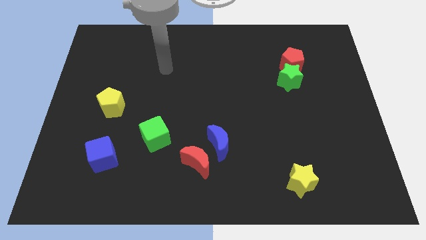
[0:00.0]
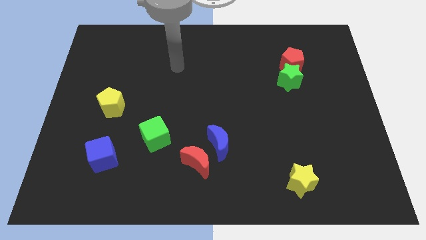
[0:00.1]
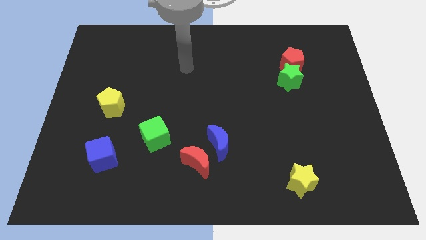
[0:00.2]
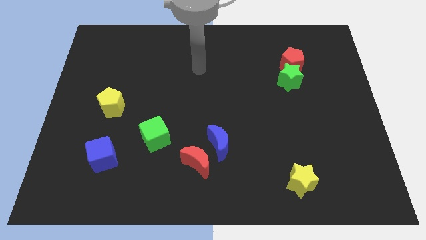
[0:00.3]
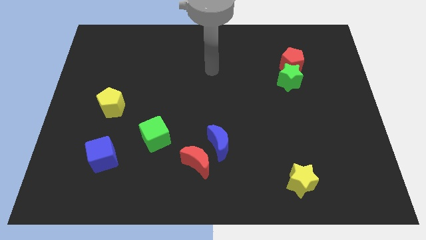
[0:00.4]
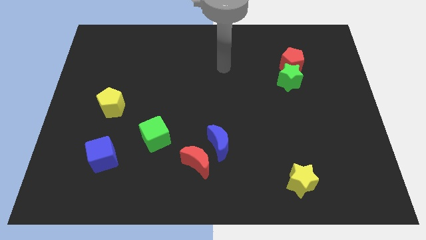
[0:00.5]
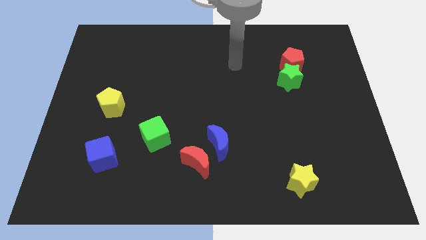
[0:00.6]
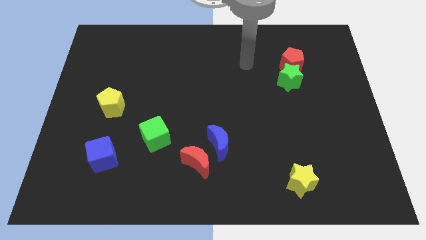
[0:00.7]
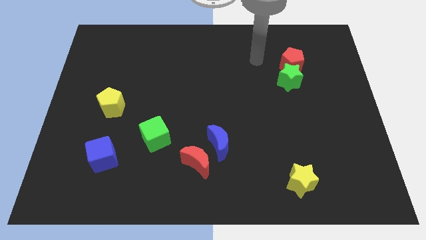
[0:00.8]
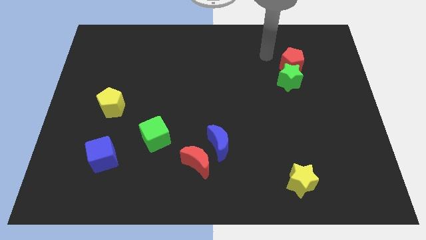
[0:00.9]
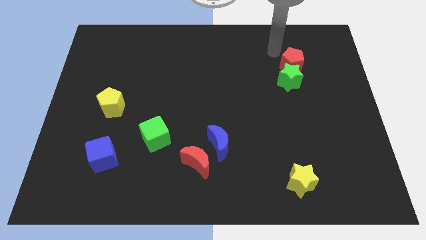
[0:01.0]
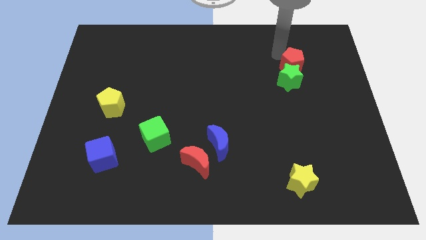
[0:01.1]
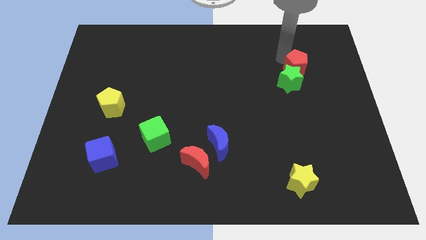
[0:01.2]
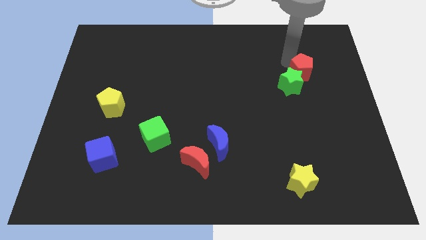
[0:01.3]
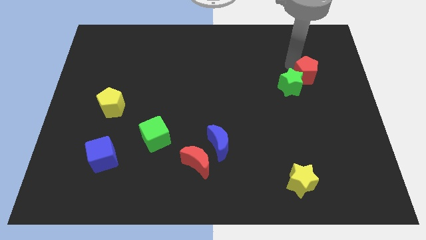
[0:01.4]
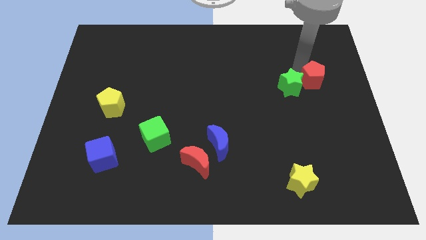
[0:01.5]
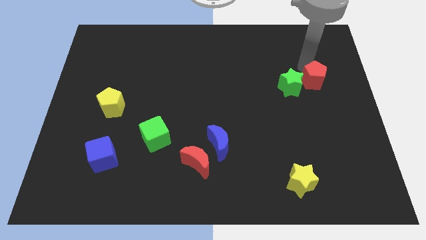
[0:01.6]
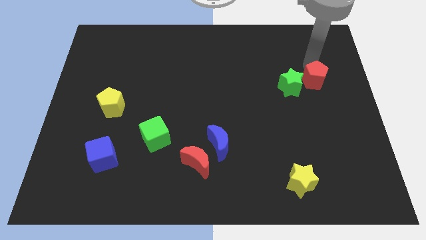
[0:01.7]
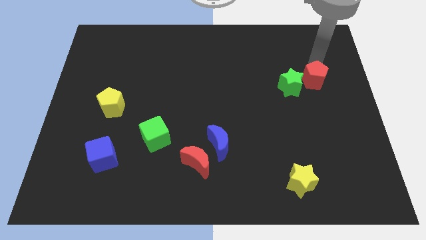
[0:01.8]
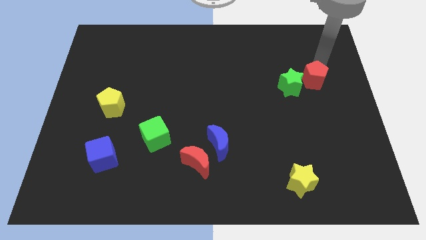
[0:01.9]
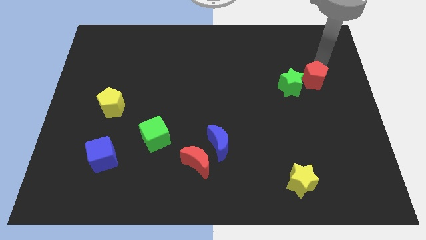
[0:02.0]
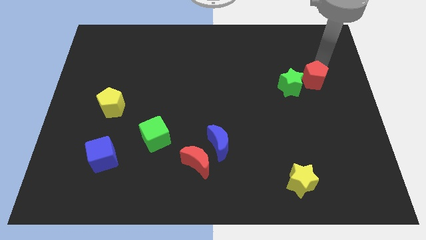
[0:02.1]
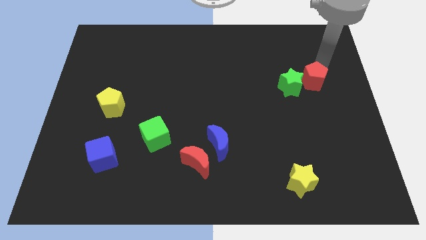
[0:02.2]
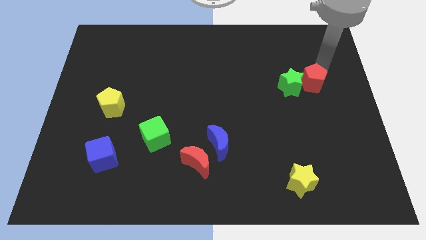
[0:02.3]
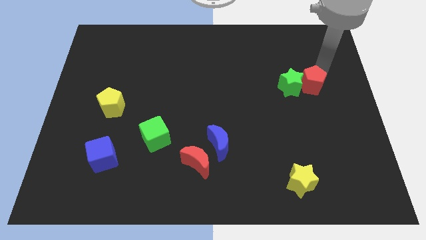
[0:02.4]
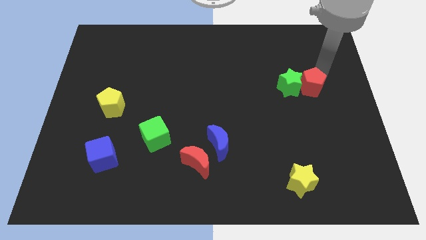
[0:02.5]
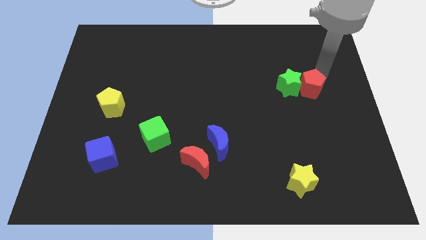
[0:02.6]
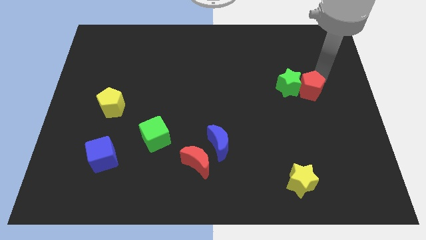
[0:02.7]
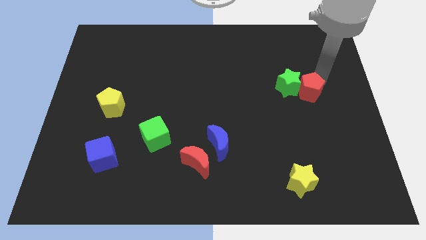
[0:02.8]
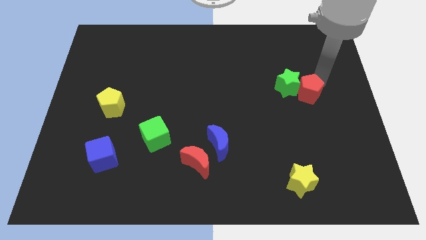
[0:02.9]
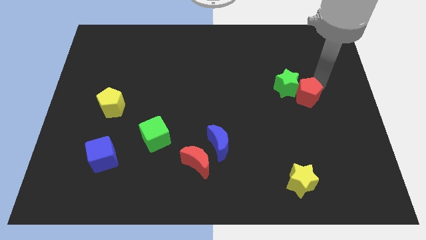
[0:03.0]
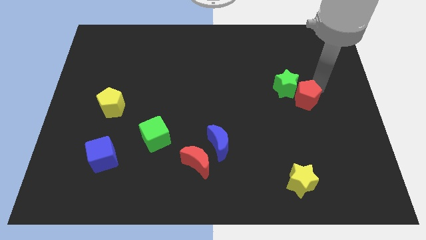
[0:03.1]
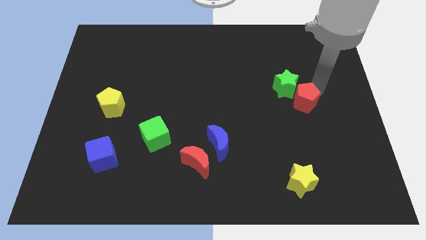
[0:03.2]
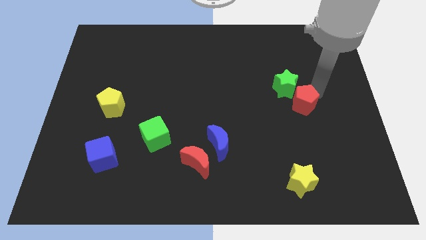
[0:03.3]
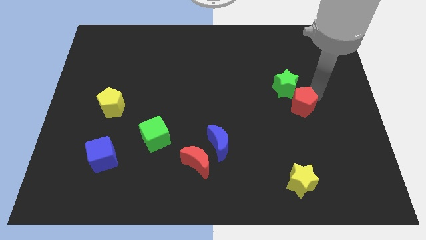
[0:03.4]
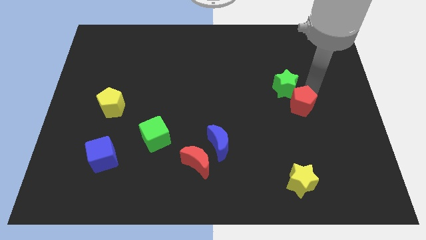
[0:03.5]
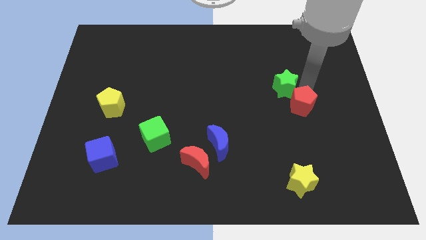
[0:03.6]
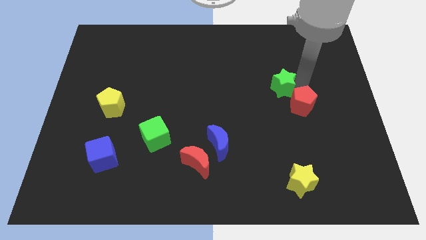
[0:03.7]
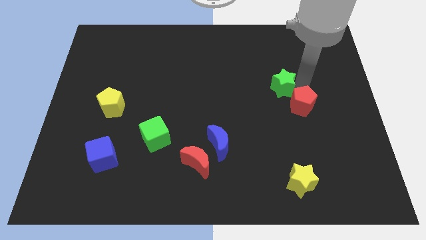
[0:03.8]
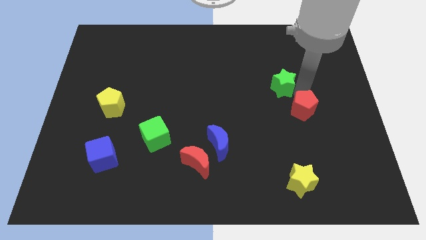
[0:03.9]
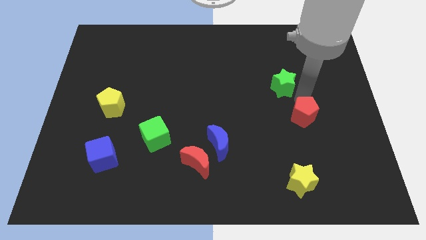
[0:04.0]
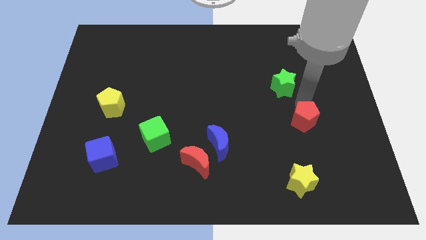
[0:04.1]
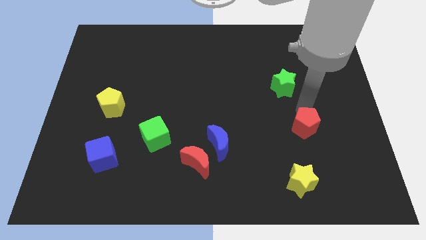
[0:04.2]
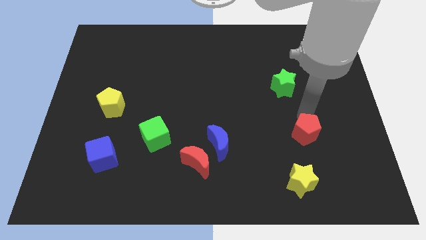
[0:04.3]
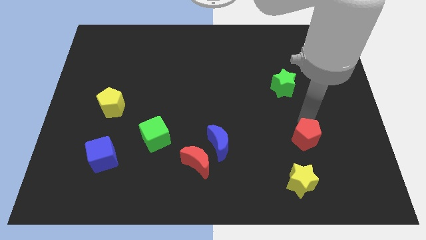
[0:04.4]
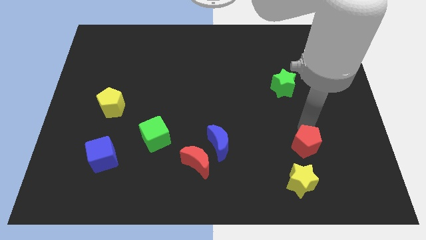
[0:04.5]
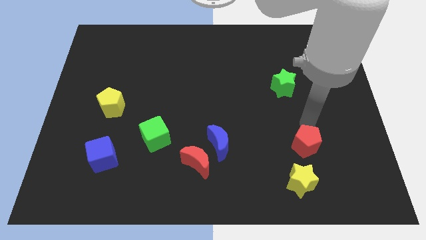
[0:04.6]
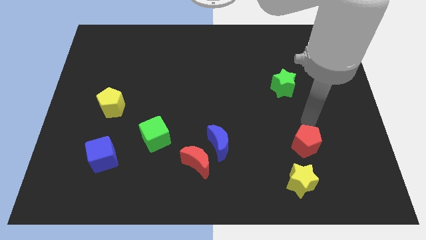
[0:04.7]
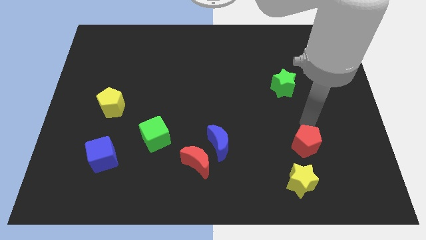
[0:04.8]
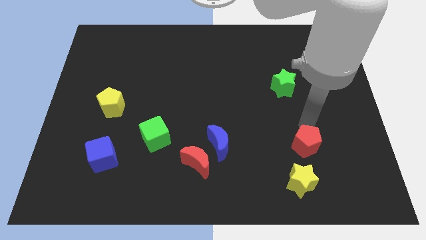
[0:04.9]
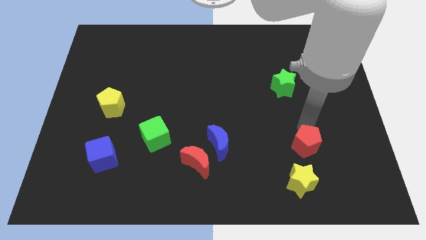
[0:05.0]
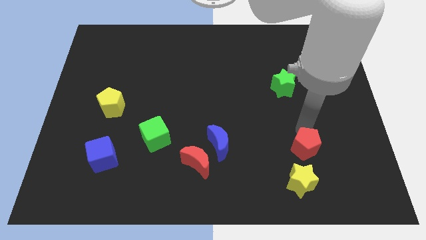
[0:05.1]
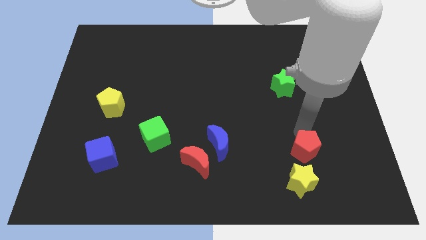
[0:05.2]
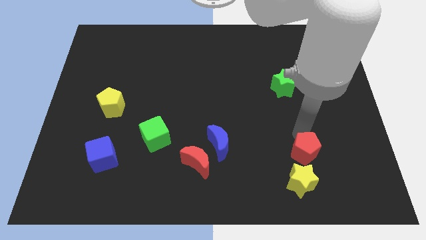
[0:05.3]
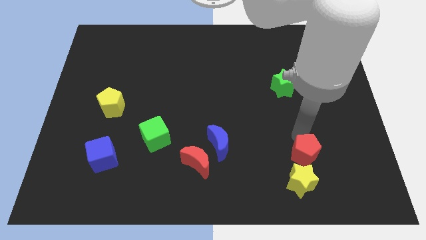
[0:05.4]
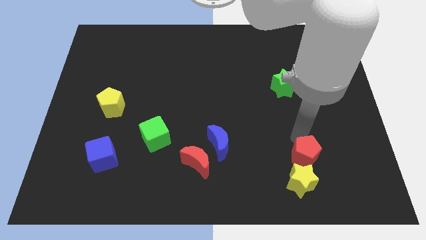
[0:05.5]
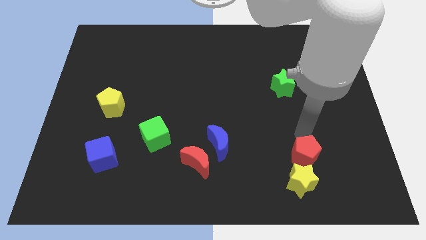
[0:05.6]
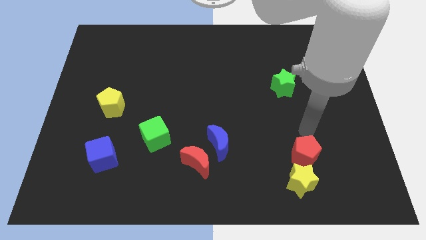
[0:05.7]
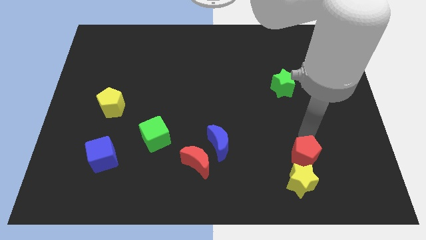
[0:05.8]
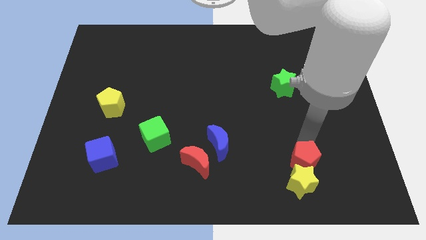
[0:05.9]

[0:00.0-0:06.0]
push the red pentagon close to the yellow star

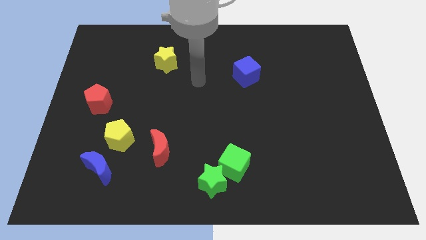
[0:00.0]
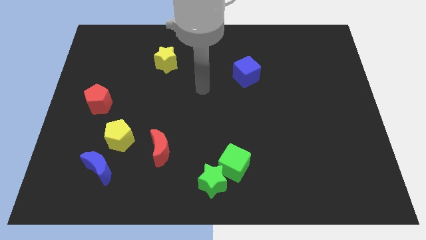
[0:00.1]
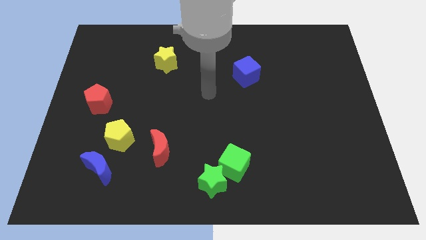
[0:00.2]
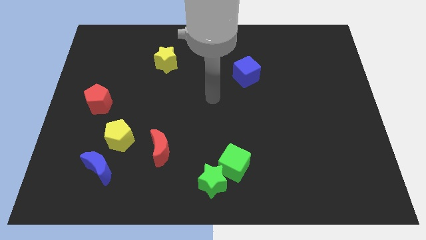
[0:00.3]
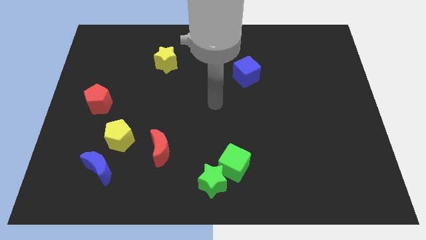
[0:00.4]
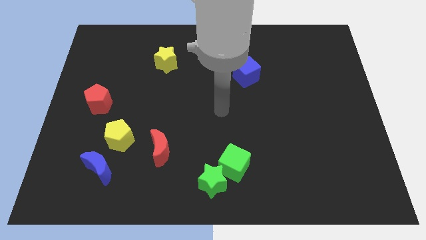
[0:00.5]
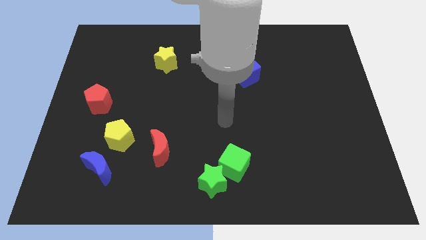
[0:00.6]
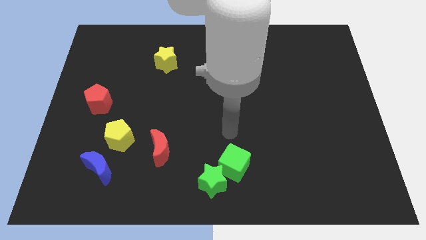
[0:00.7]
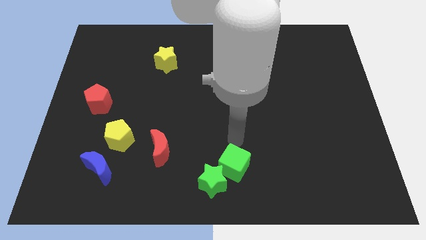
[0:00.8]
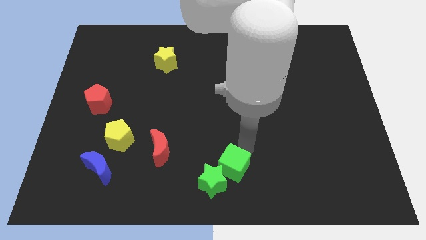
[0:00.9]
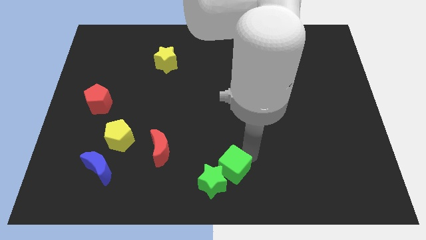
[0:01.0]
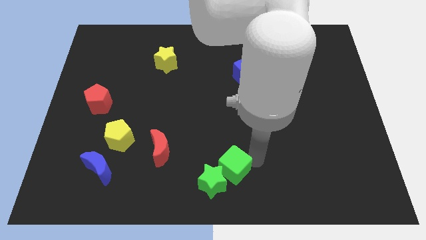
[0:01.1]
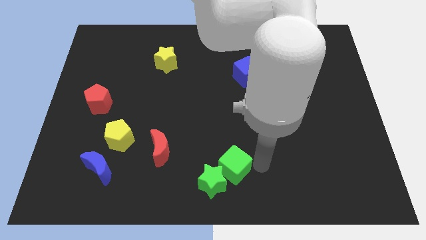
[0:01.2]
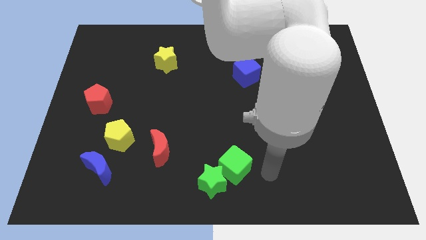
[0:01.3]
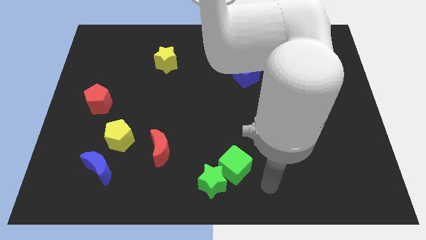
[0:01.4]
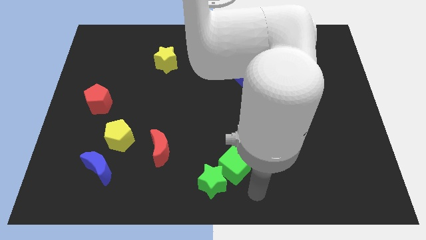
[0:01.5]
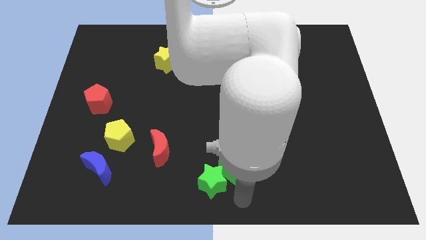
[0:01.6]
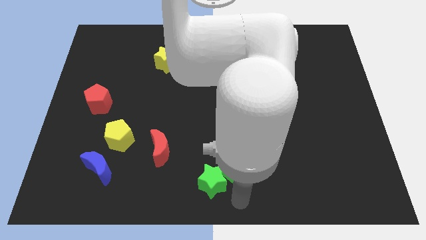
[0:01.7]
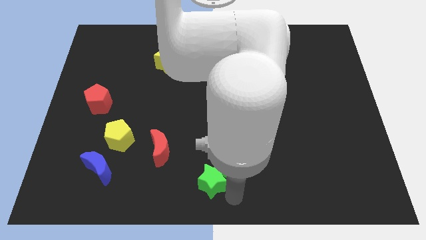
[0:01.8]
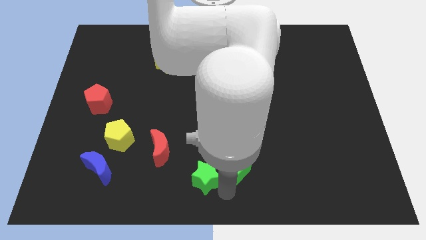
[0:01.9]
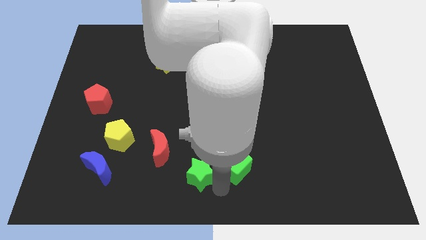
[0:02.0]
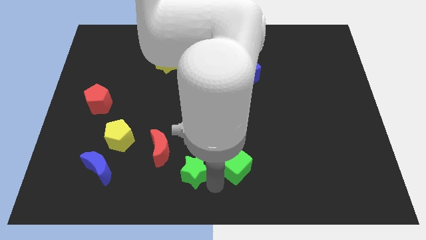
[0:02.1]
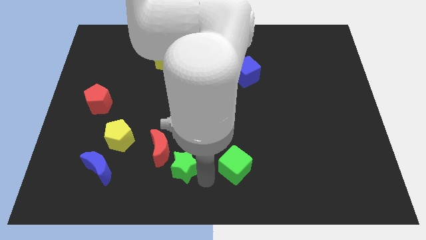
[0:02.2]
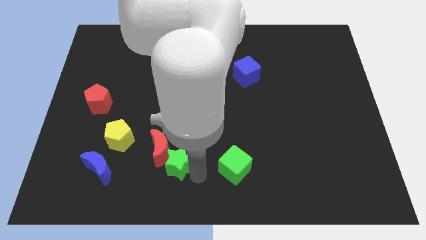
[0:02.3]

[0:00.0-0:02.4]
put the green star to the red moon
